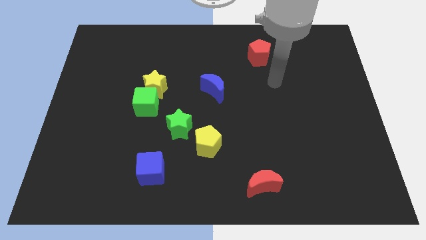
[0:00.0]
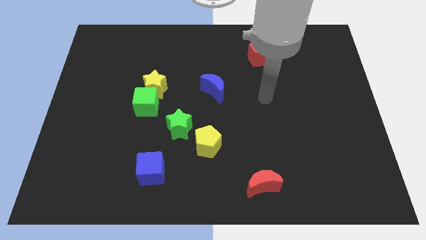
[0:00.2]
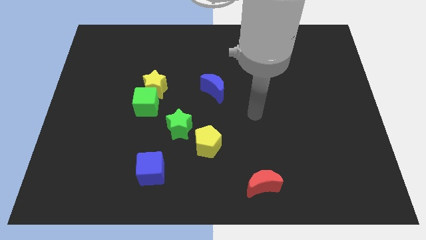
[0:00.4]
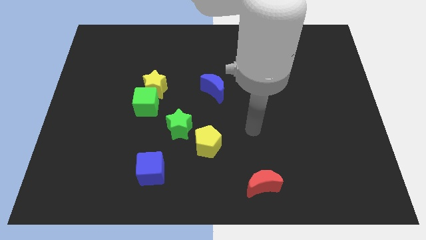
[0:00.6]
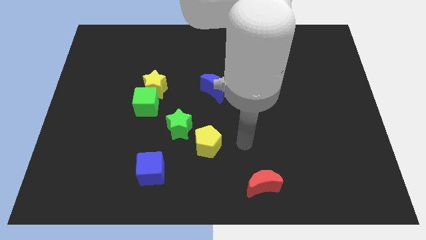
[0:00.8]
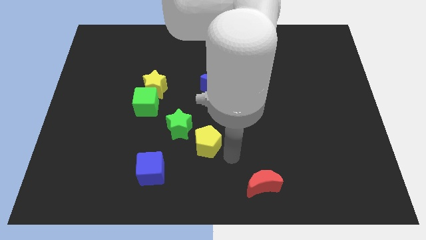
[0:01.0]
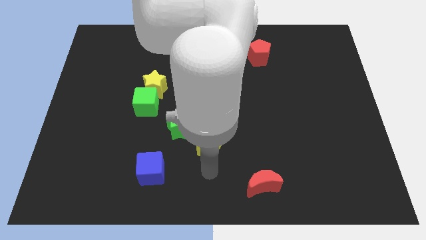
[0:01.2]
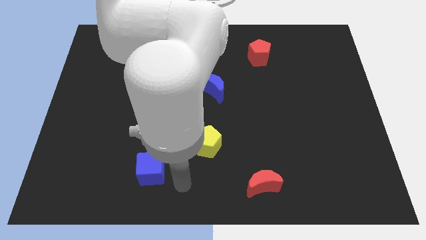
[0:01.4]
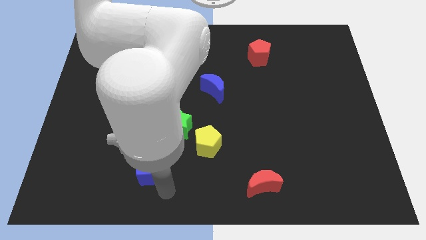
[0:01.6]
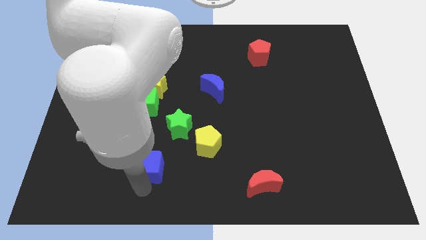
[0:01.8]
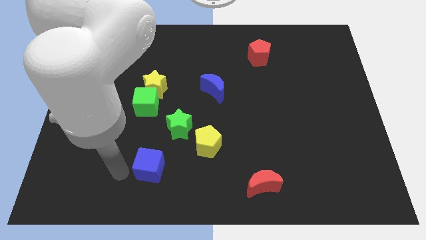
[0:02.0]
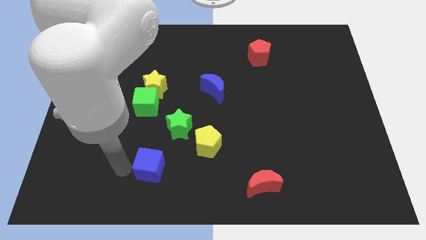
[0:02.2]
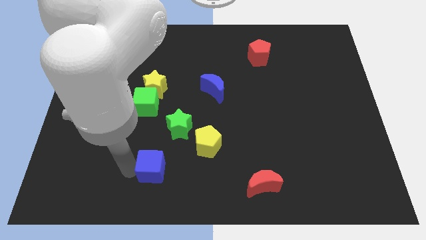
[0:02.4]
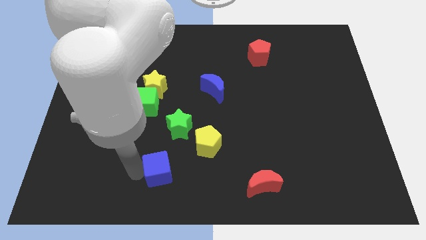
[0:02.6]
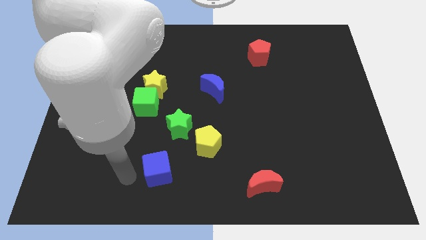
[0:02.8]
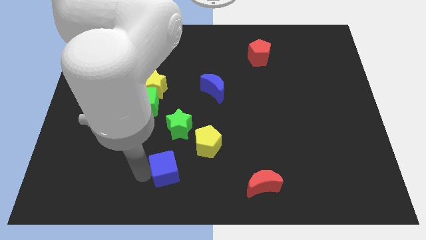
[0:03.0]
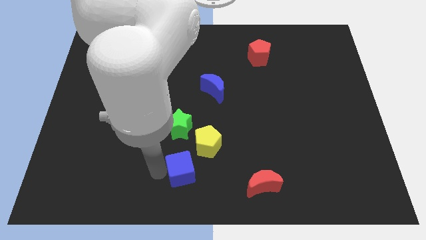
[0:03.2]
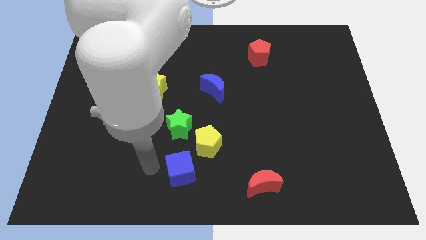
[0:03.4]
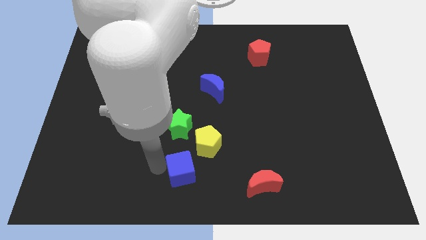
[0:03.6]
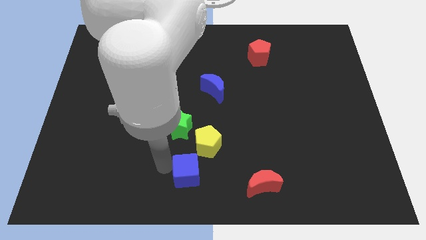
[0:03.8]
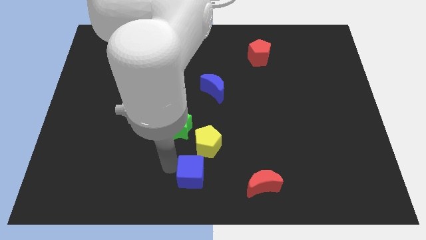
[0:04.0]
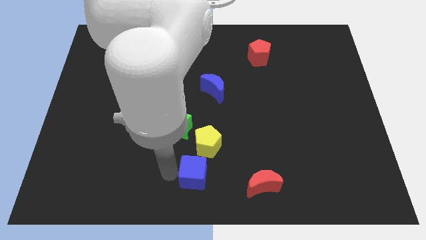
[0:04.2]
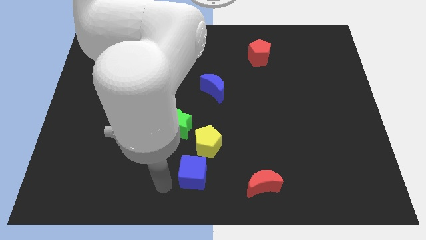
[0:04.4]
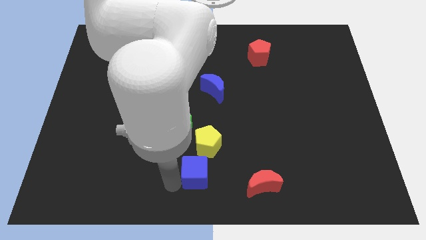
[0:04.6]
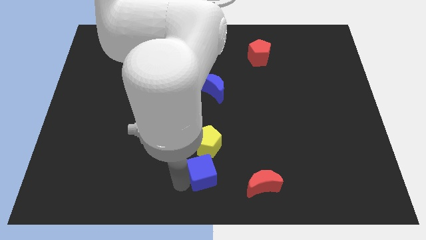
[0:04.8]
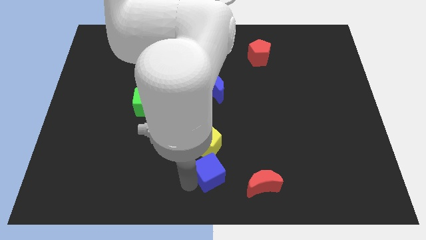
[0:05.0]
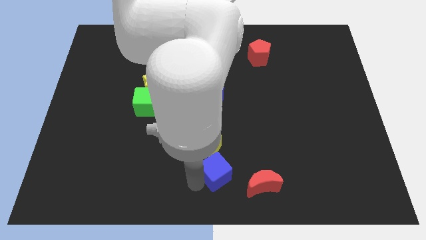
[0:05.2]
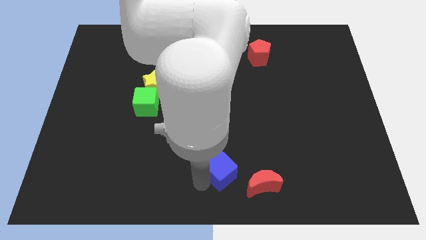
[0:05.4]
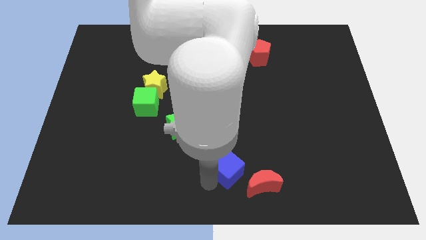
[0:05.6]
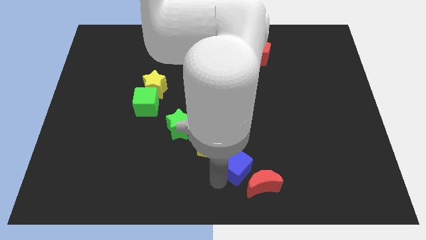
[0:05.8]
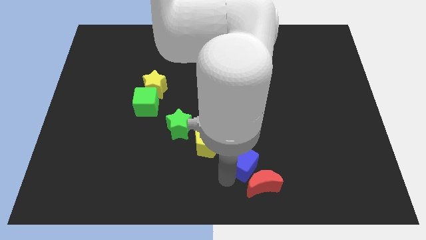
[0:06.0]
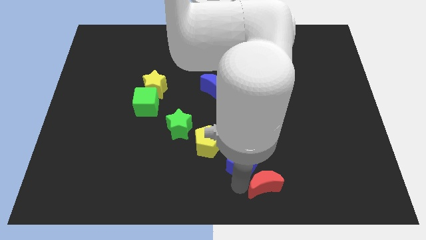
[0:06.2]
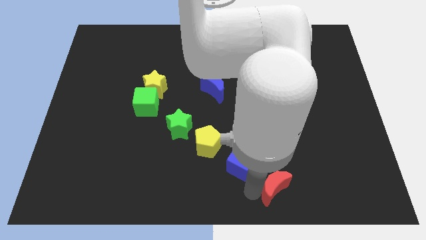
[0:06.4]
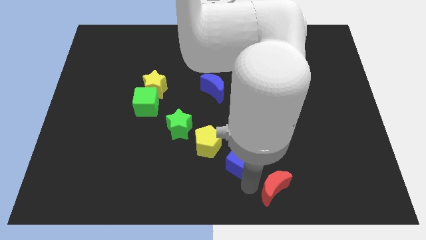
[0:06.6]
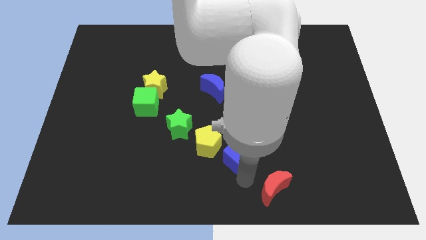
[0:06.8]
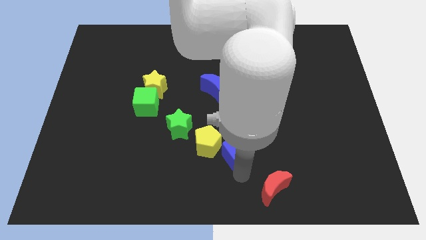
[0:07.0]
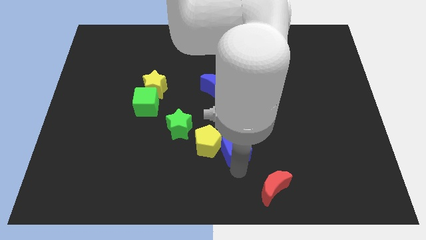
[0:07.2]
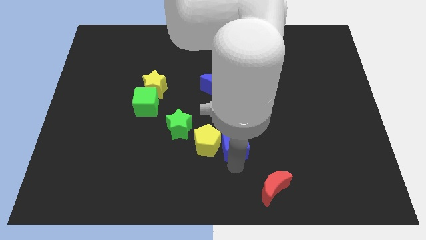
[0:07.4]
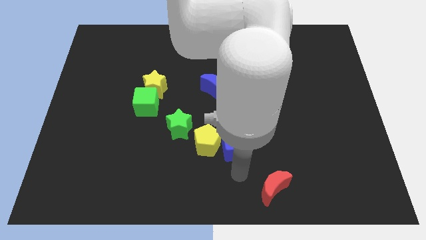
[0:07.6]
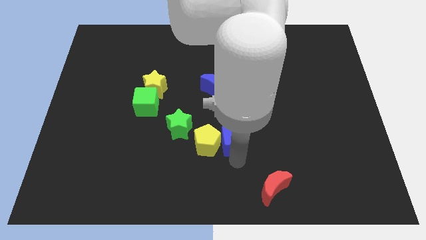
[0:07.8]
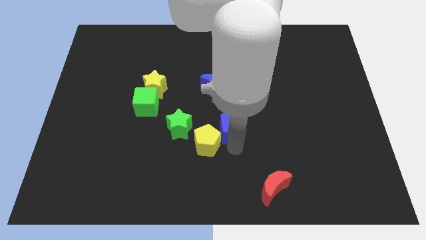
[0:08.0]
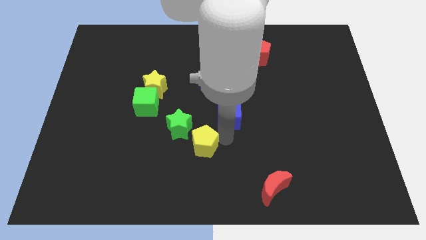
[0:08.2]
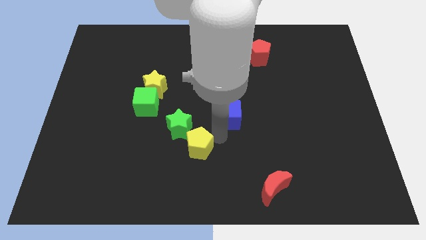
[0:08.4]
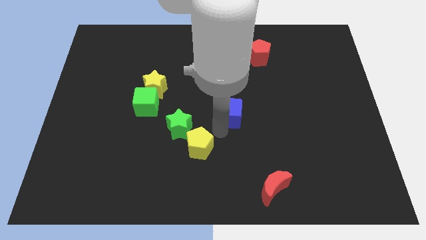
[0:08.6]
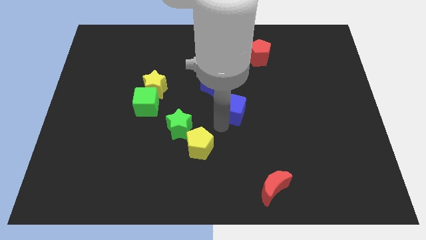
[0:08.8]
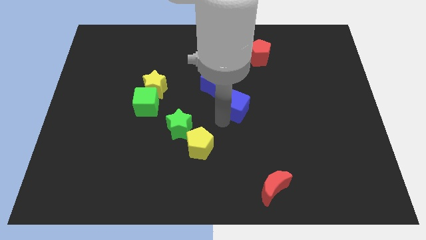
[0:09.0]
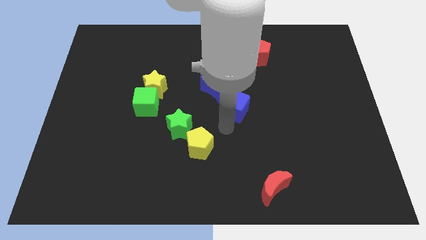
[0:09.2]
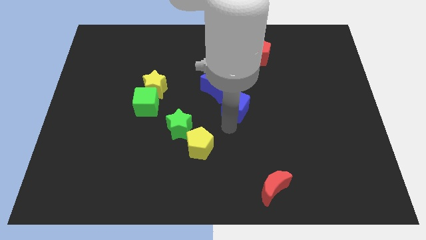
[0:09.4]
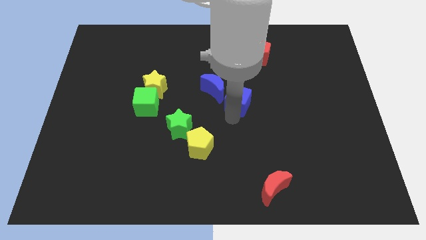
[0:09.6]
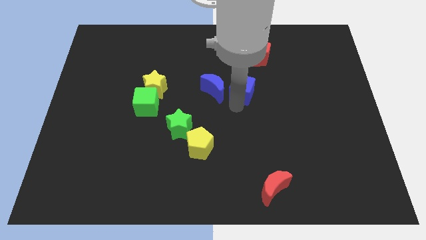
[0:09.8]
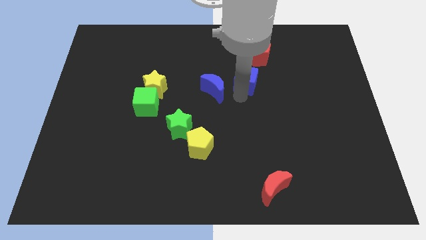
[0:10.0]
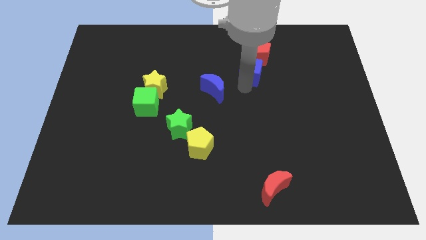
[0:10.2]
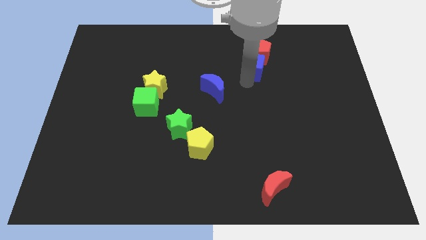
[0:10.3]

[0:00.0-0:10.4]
push the blue cube to the red pentagon

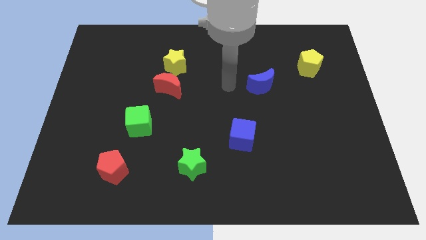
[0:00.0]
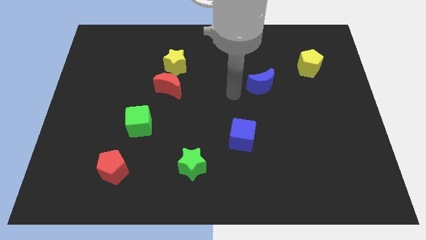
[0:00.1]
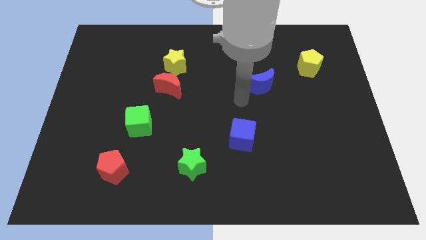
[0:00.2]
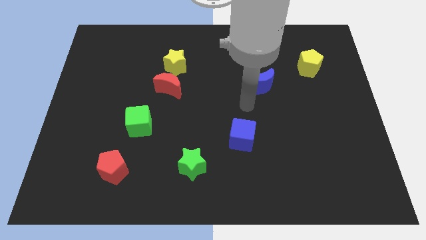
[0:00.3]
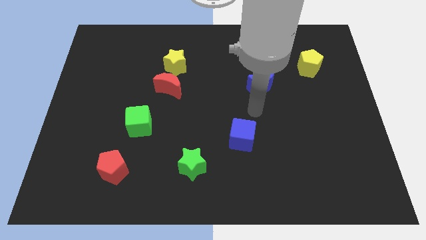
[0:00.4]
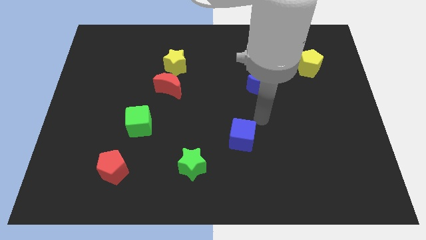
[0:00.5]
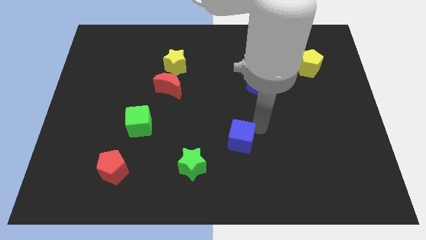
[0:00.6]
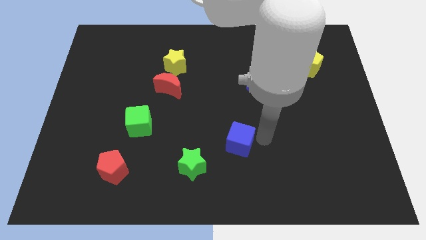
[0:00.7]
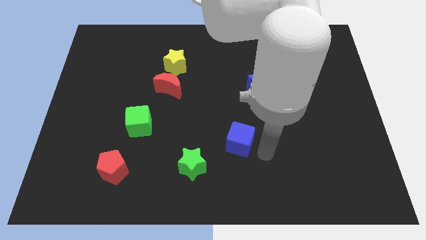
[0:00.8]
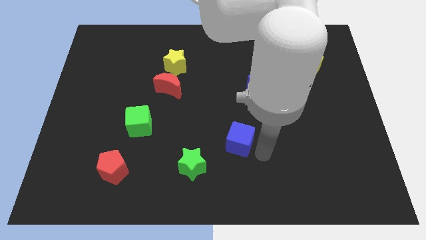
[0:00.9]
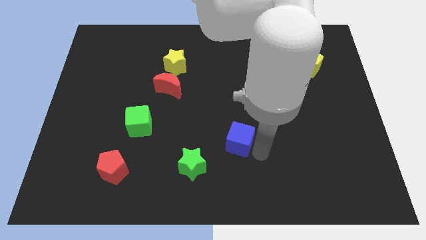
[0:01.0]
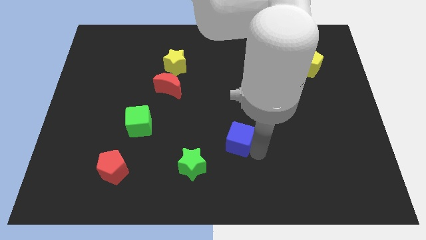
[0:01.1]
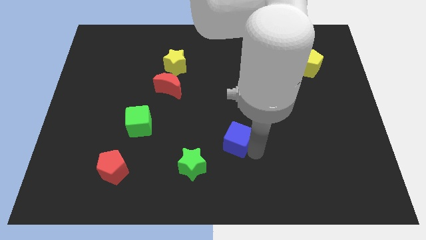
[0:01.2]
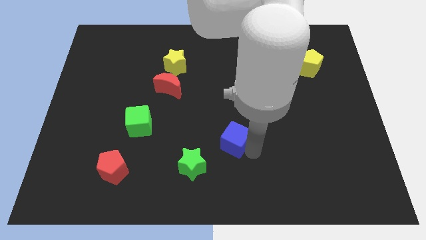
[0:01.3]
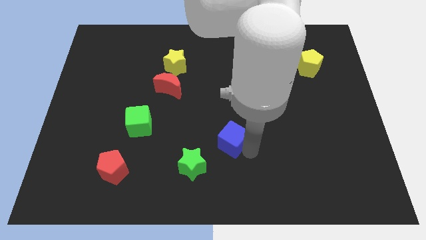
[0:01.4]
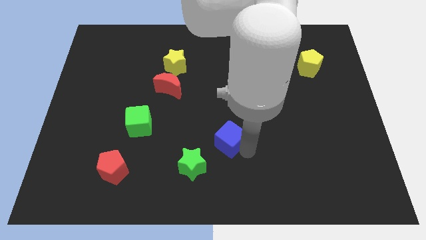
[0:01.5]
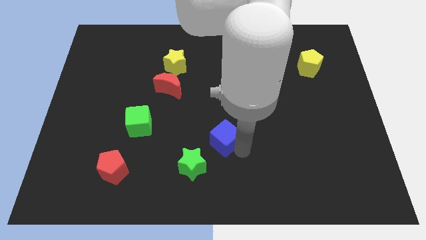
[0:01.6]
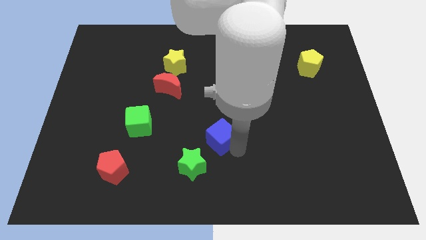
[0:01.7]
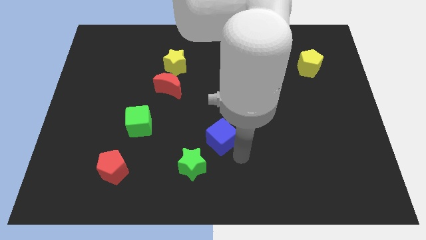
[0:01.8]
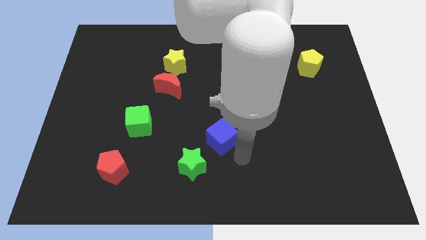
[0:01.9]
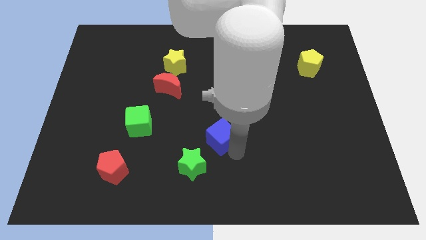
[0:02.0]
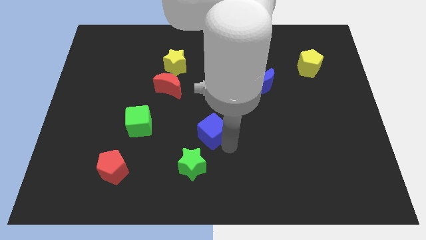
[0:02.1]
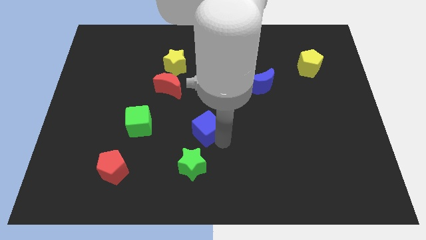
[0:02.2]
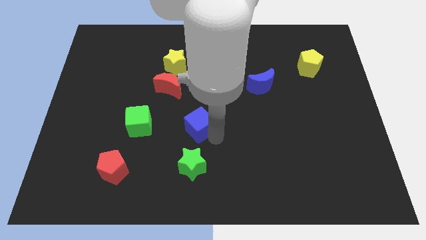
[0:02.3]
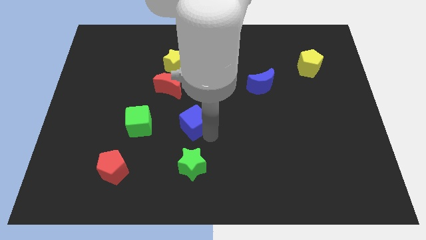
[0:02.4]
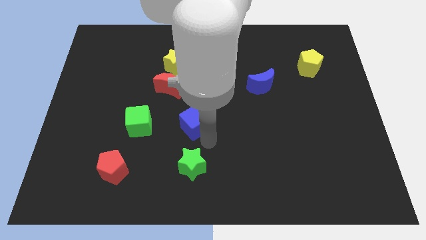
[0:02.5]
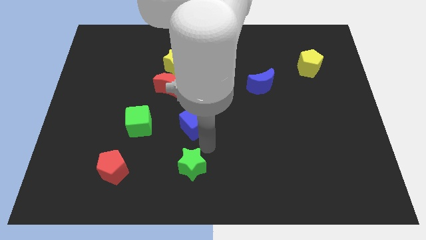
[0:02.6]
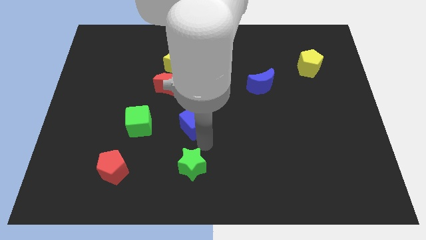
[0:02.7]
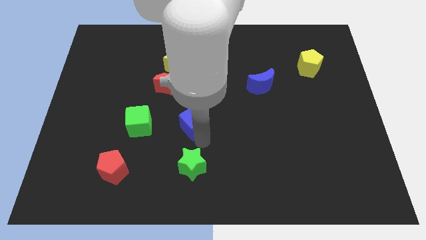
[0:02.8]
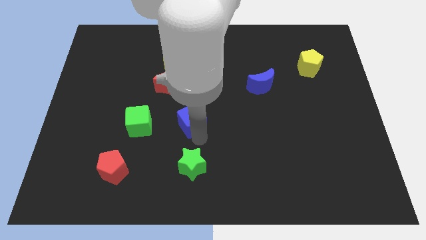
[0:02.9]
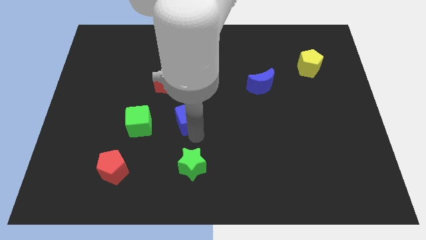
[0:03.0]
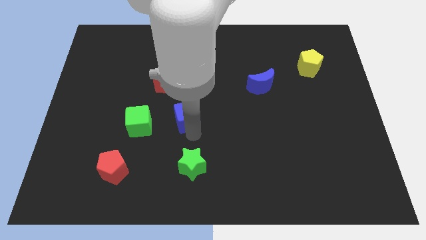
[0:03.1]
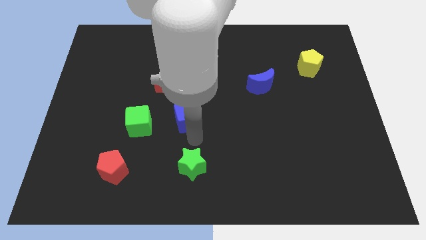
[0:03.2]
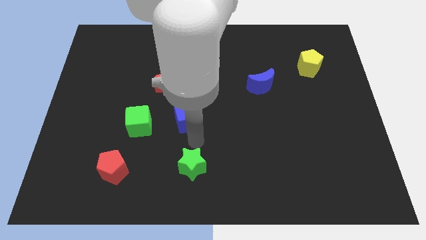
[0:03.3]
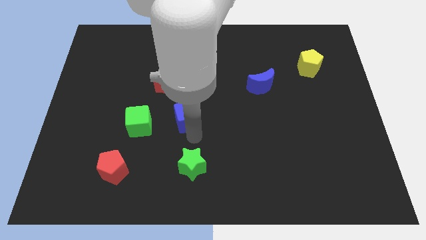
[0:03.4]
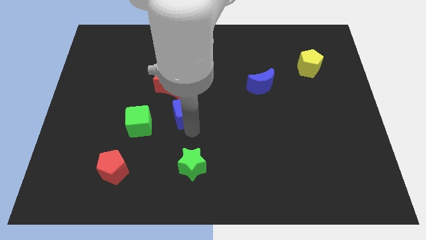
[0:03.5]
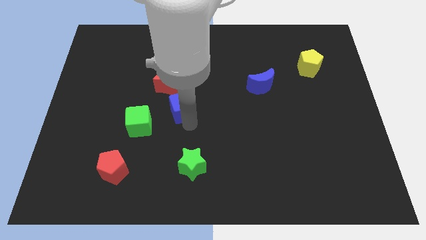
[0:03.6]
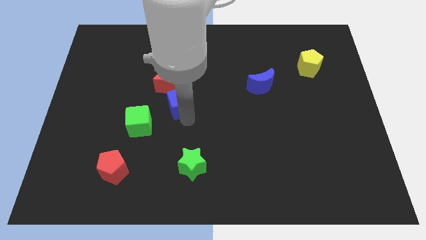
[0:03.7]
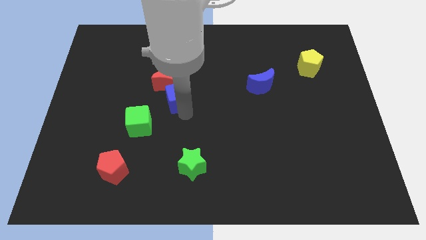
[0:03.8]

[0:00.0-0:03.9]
push the blue cube towards the red moon
